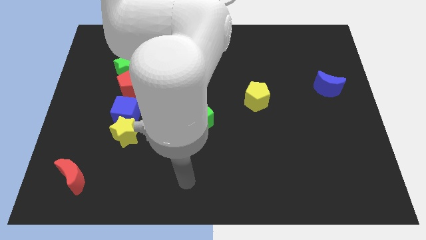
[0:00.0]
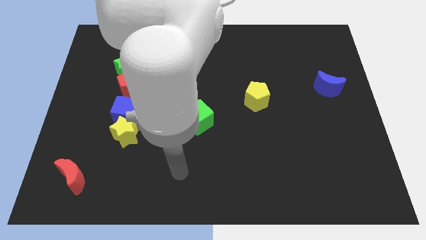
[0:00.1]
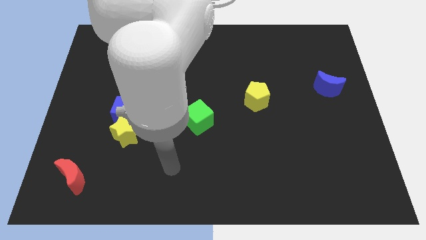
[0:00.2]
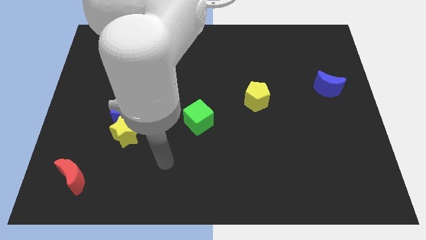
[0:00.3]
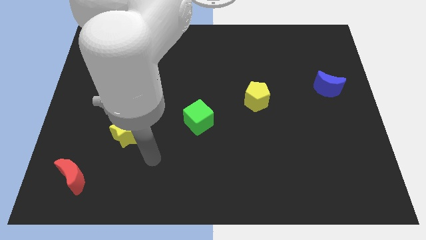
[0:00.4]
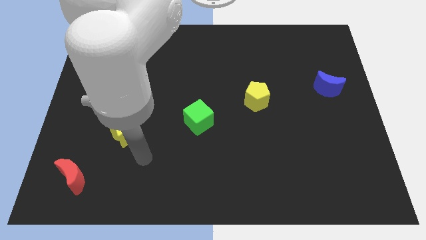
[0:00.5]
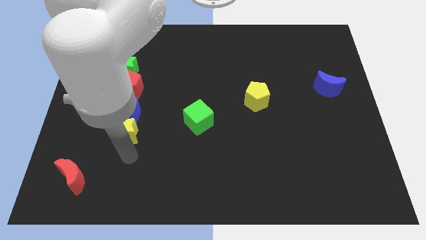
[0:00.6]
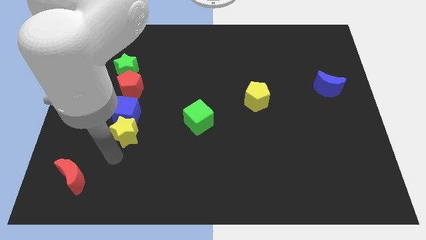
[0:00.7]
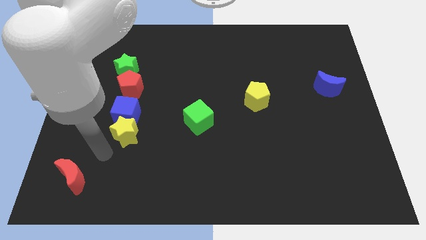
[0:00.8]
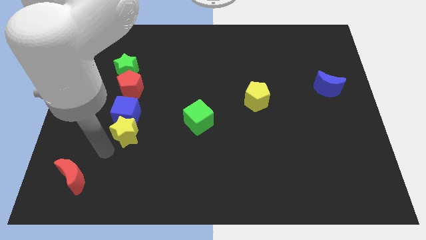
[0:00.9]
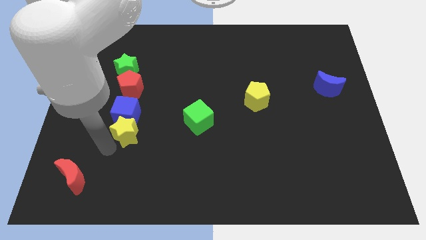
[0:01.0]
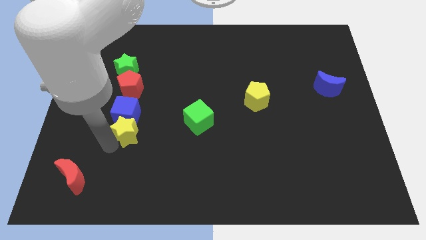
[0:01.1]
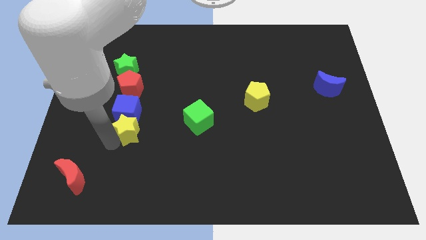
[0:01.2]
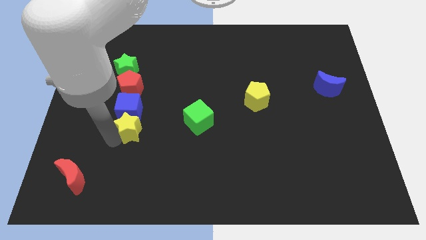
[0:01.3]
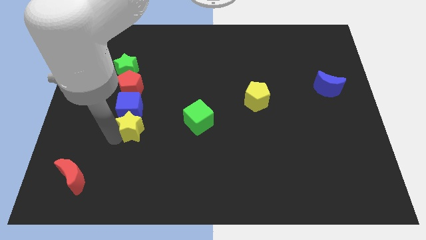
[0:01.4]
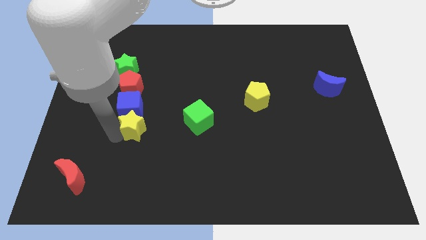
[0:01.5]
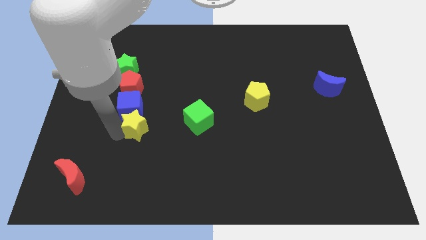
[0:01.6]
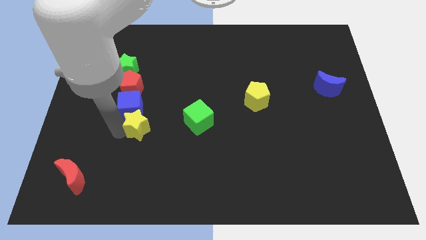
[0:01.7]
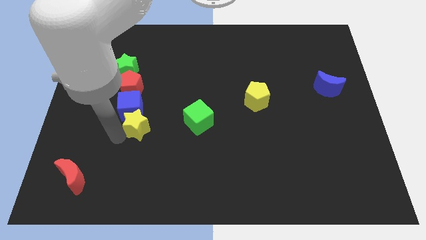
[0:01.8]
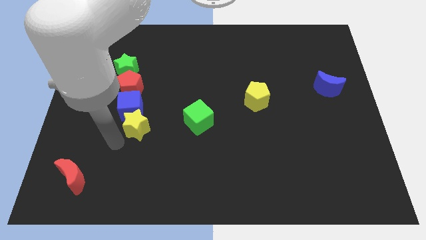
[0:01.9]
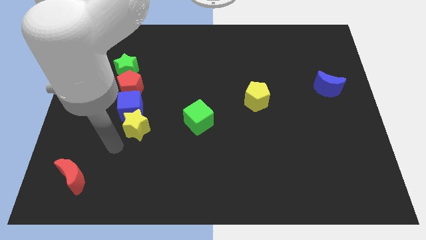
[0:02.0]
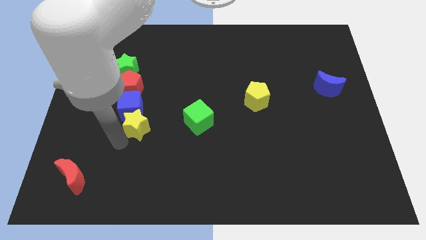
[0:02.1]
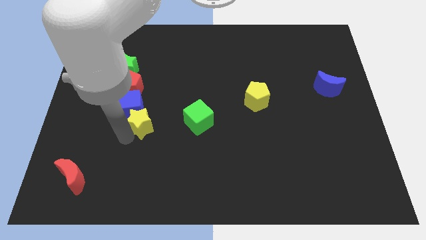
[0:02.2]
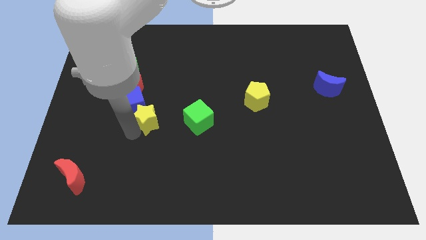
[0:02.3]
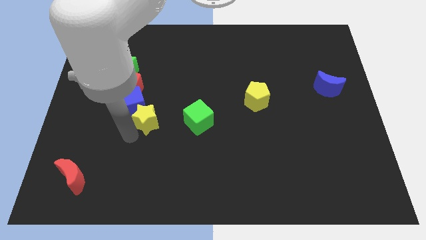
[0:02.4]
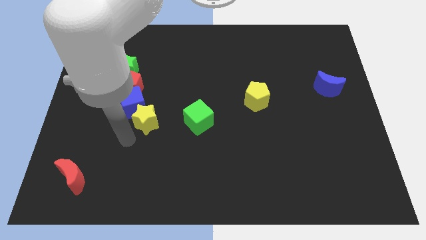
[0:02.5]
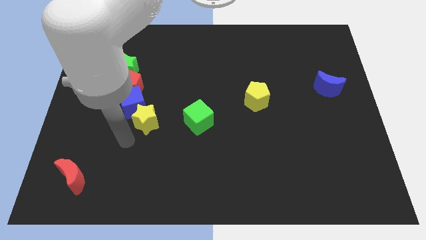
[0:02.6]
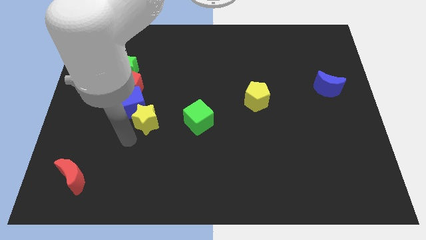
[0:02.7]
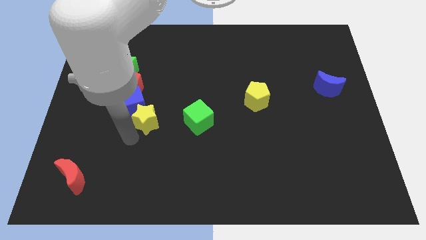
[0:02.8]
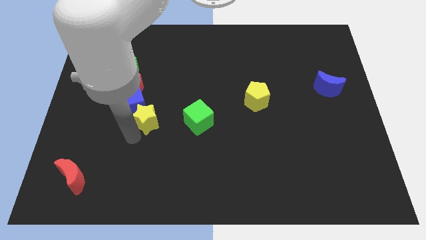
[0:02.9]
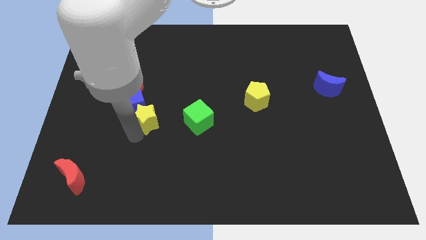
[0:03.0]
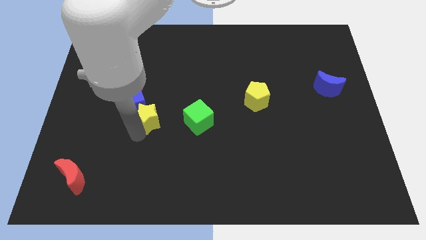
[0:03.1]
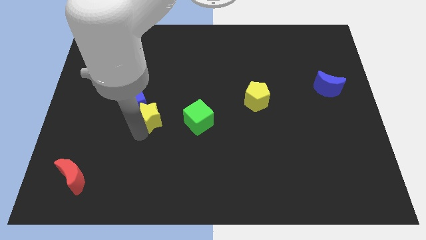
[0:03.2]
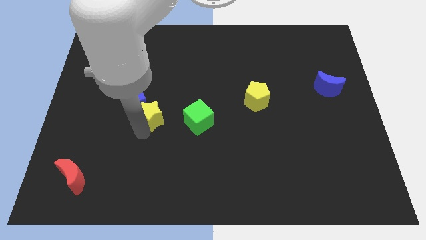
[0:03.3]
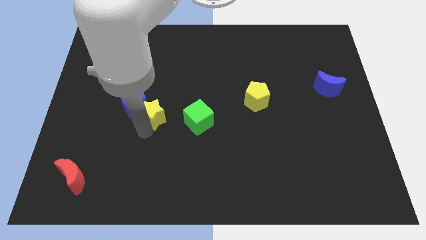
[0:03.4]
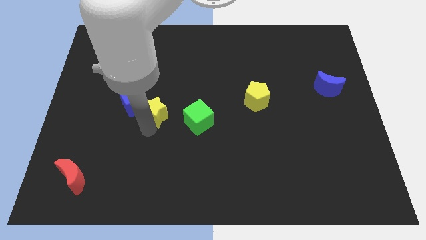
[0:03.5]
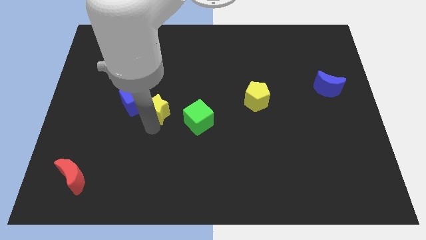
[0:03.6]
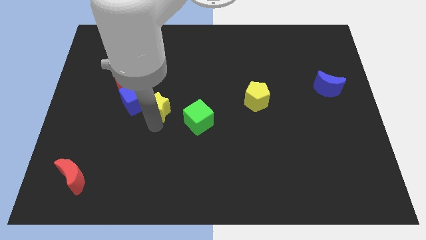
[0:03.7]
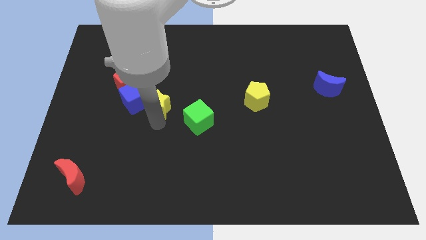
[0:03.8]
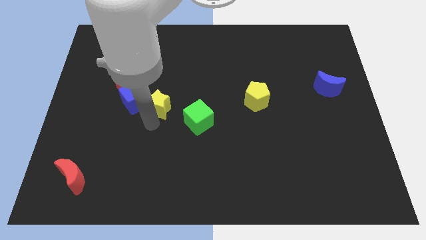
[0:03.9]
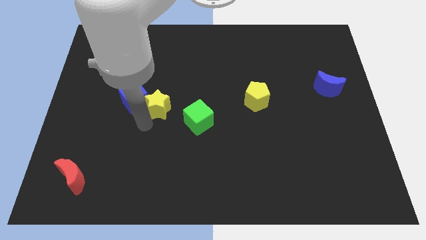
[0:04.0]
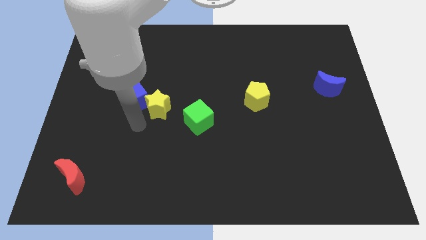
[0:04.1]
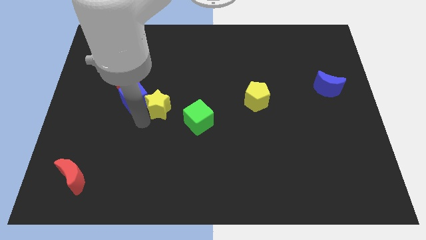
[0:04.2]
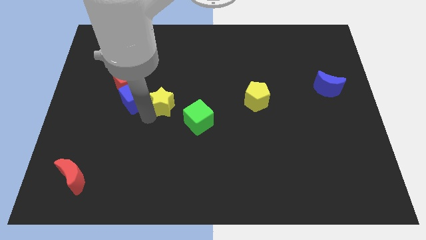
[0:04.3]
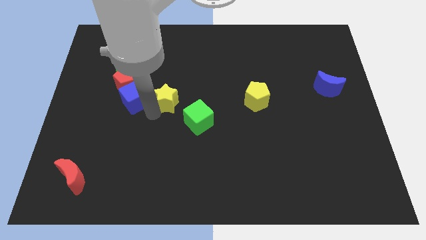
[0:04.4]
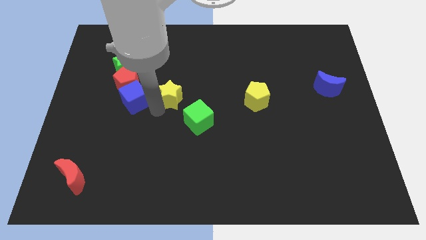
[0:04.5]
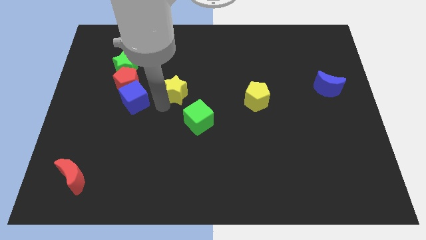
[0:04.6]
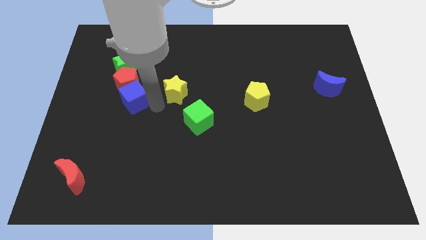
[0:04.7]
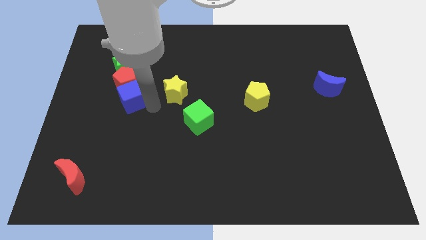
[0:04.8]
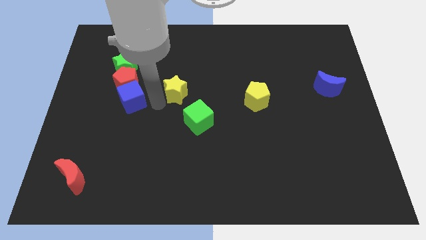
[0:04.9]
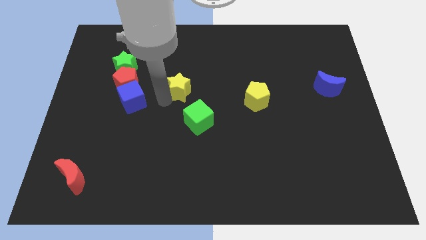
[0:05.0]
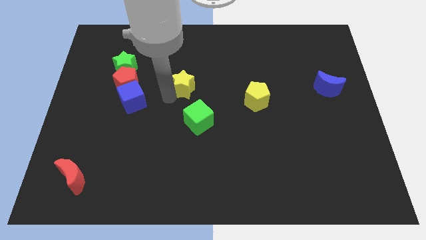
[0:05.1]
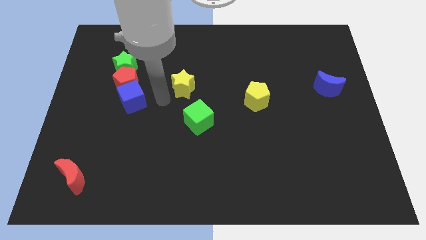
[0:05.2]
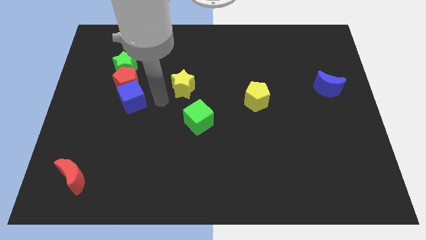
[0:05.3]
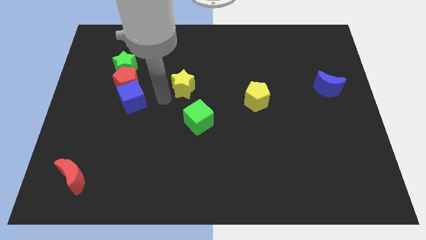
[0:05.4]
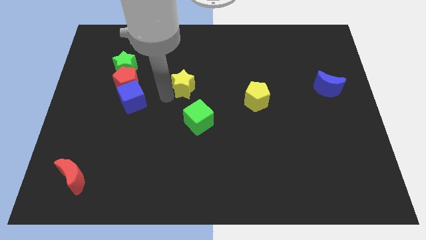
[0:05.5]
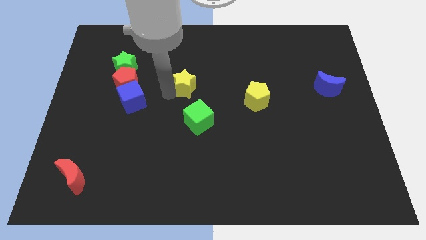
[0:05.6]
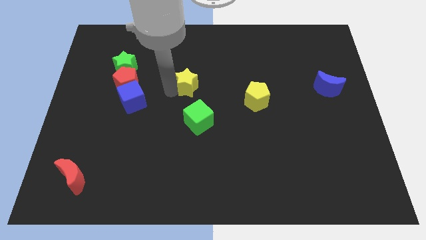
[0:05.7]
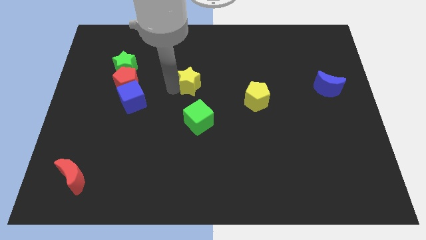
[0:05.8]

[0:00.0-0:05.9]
push the yellow star upwards and then right

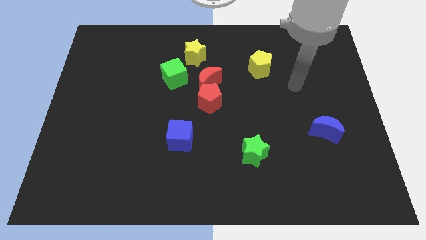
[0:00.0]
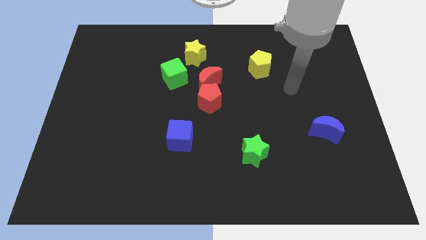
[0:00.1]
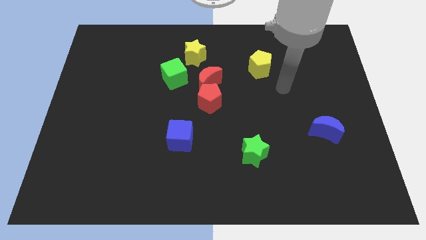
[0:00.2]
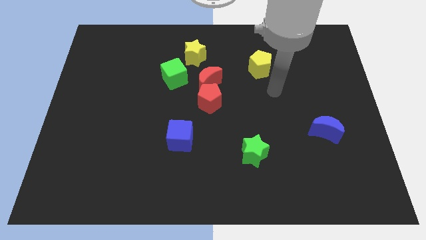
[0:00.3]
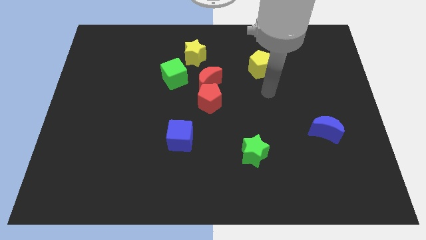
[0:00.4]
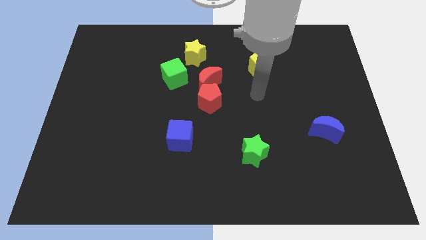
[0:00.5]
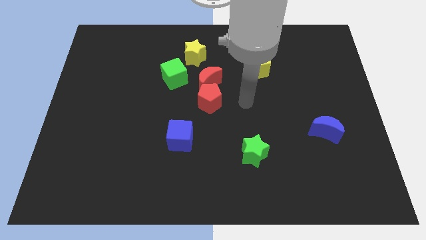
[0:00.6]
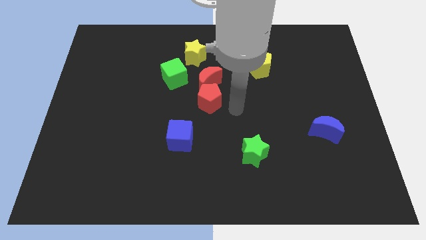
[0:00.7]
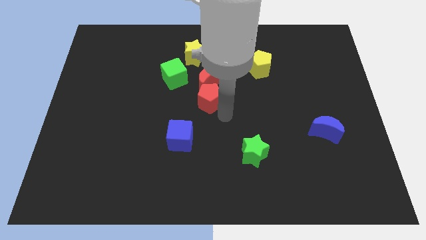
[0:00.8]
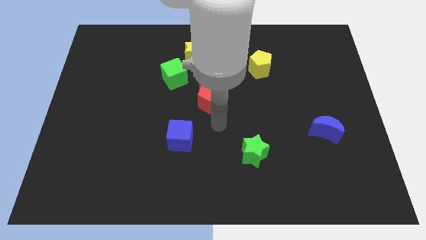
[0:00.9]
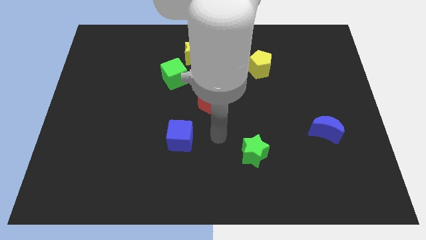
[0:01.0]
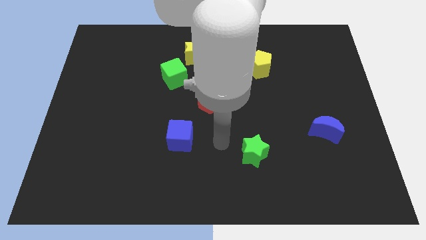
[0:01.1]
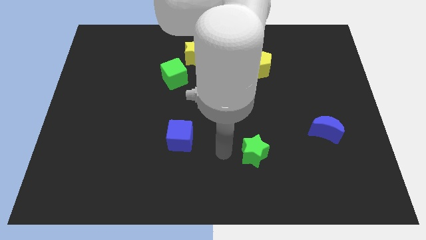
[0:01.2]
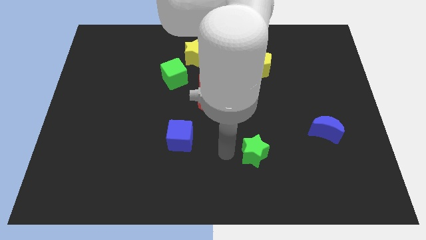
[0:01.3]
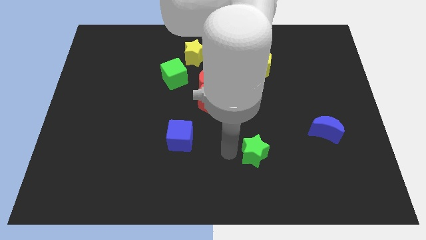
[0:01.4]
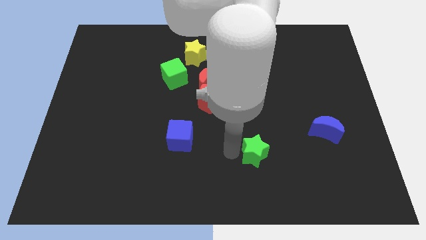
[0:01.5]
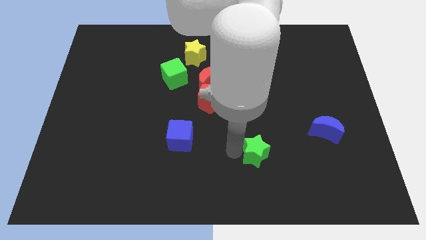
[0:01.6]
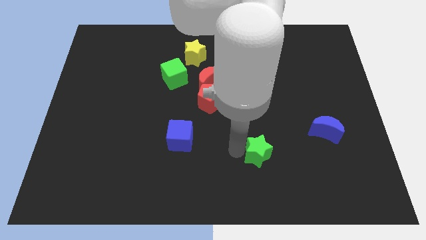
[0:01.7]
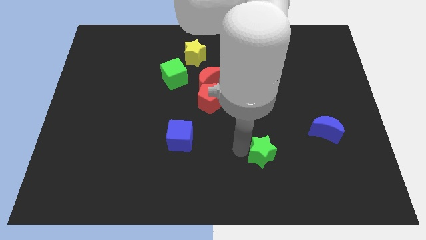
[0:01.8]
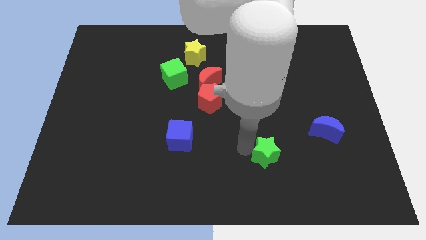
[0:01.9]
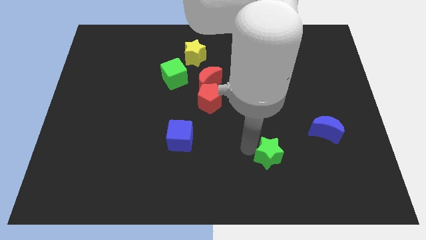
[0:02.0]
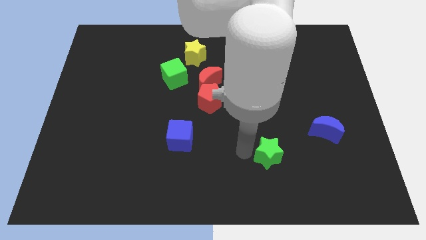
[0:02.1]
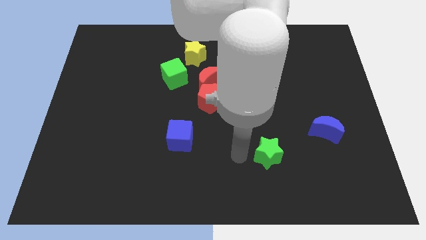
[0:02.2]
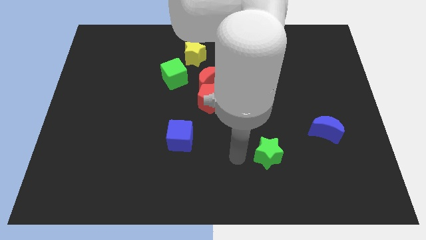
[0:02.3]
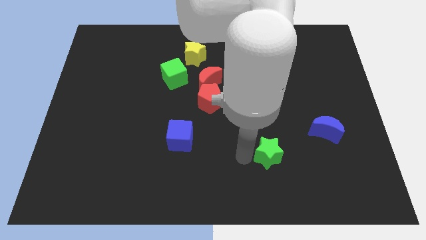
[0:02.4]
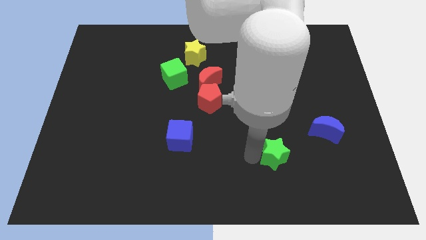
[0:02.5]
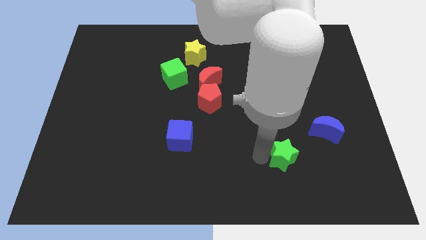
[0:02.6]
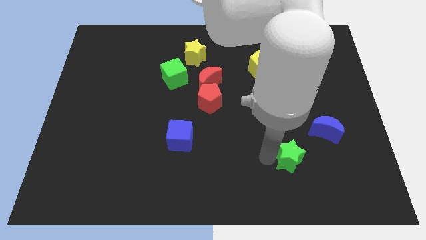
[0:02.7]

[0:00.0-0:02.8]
move the green star a little to the right
